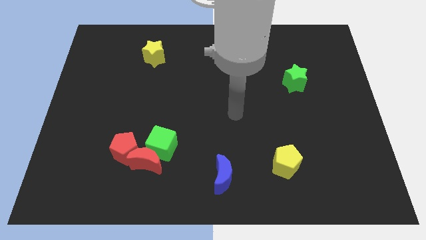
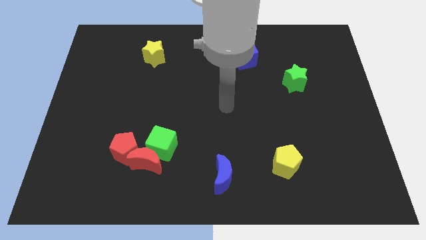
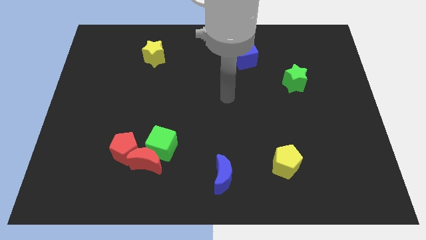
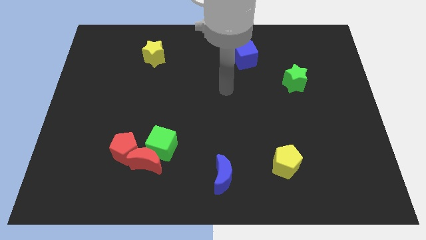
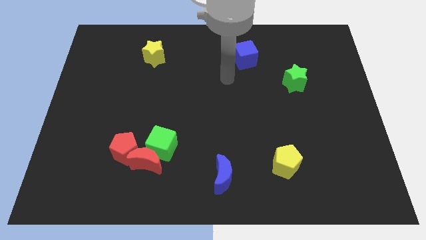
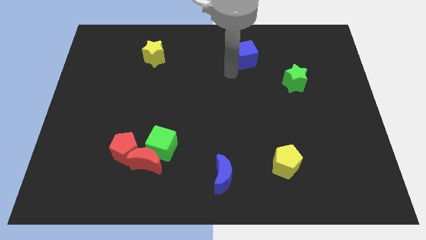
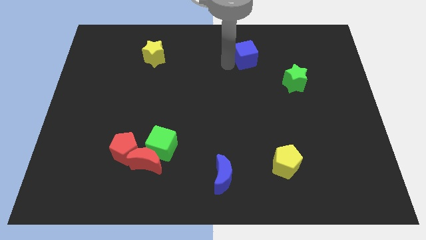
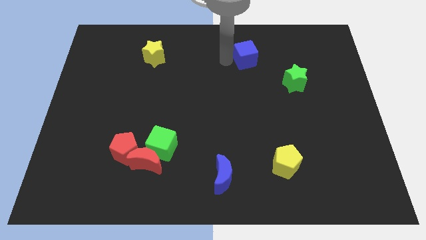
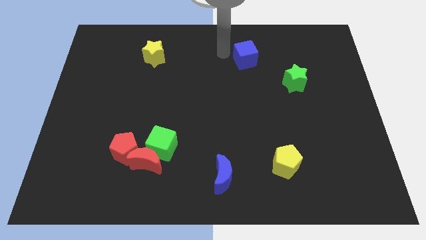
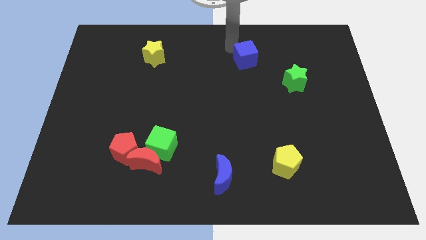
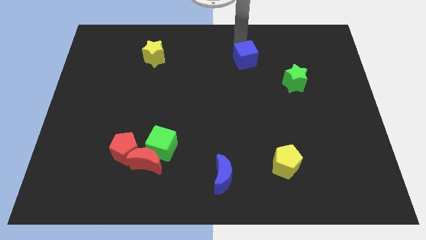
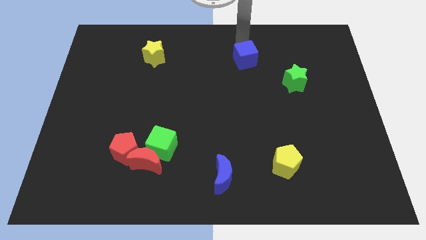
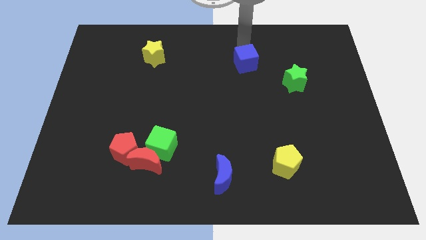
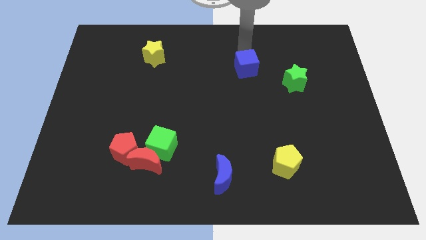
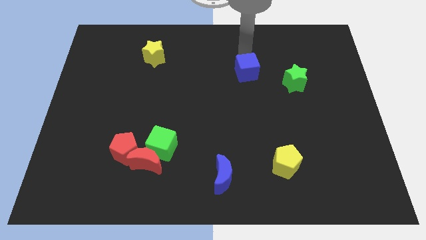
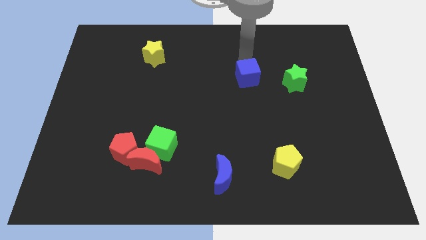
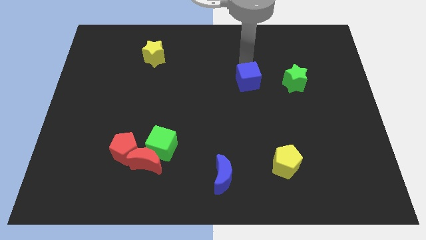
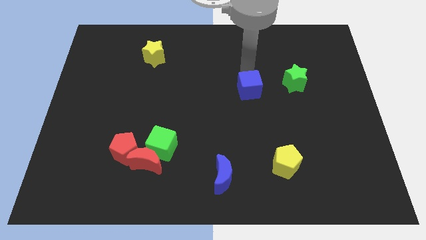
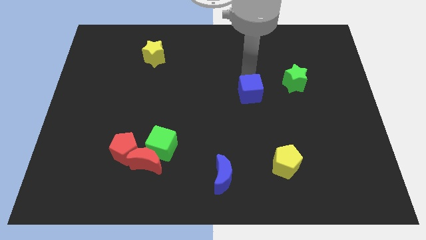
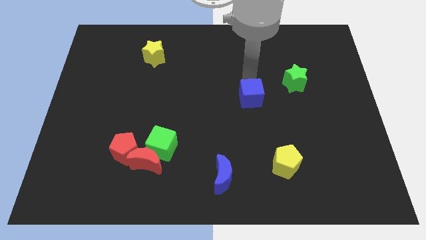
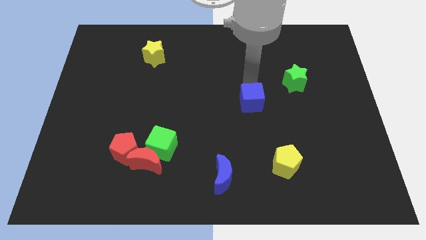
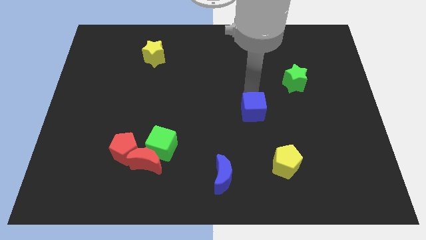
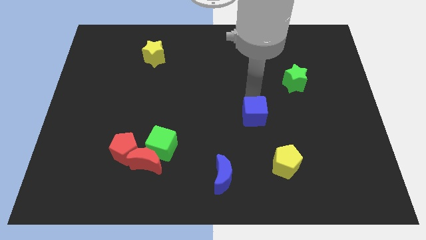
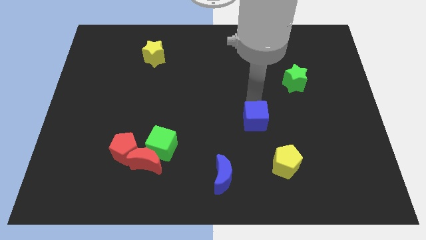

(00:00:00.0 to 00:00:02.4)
slide the blue cube down

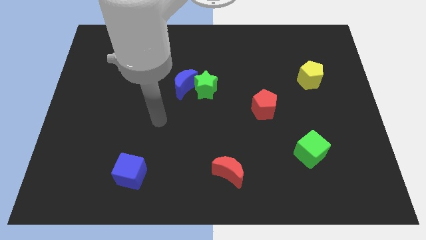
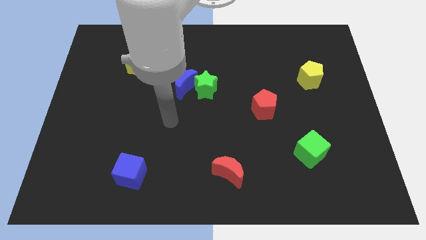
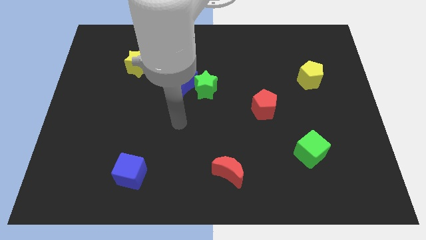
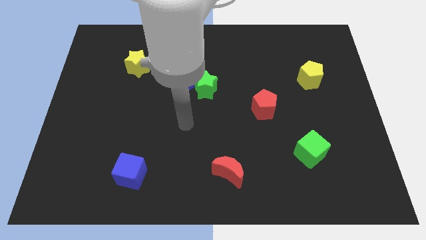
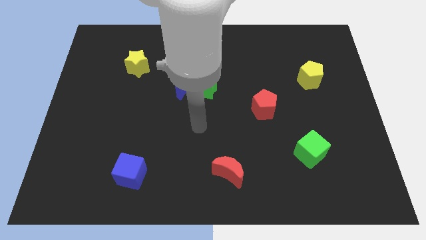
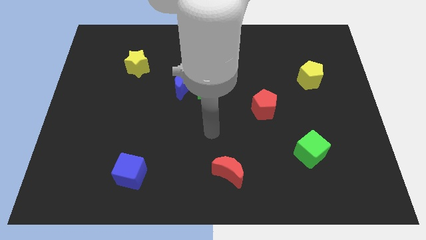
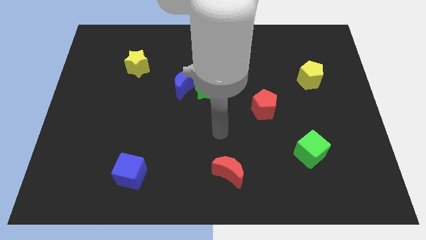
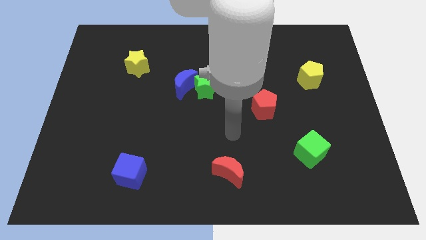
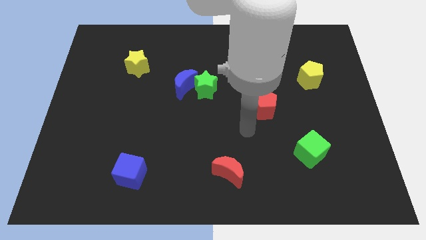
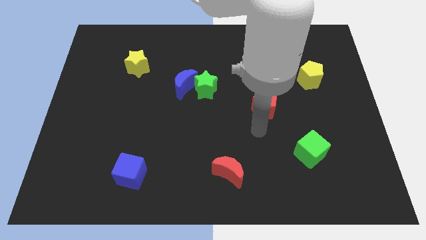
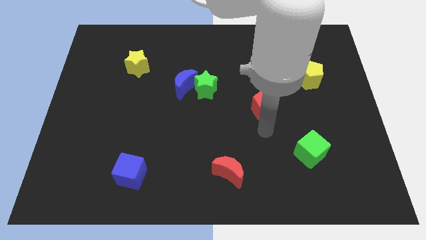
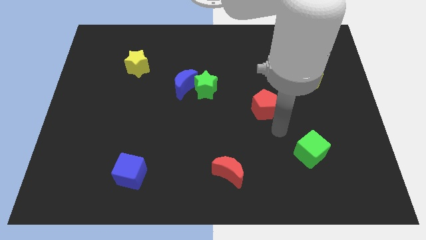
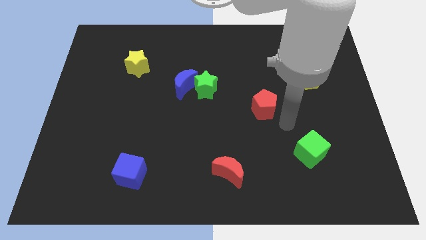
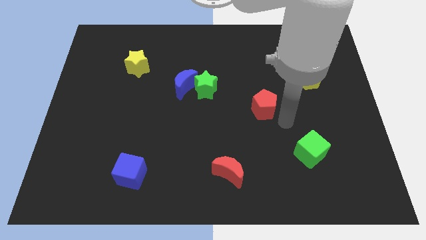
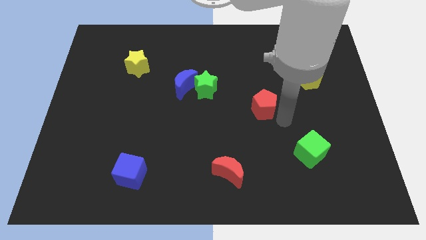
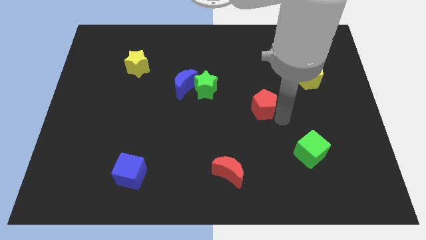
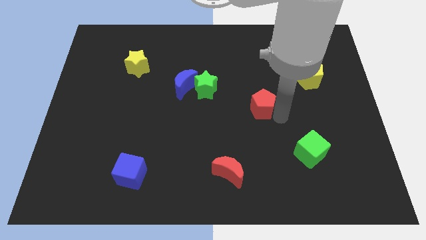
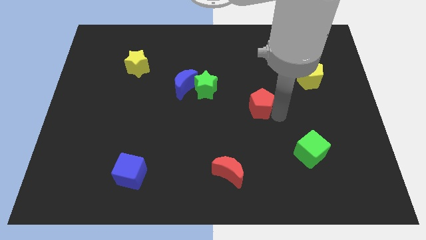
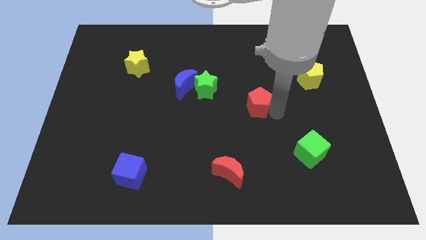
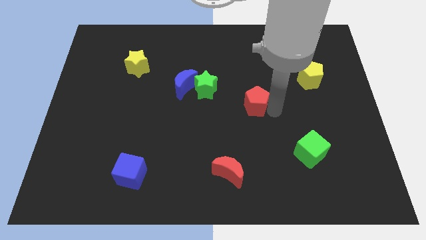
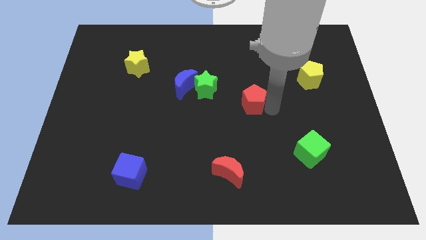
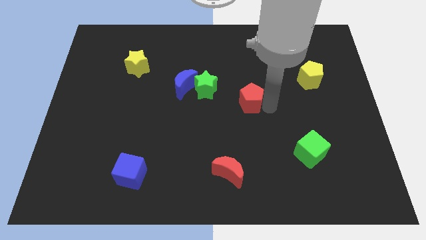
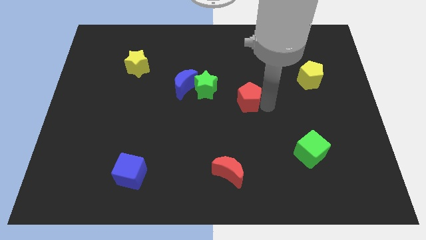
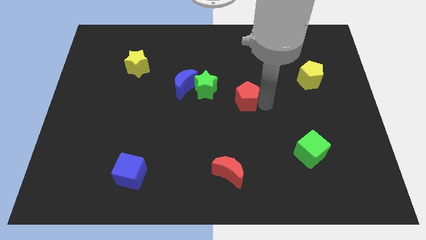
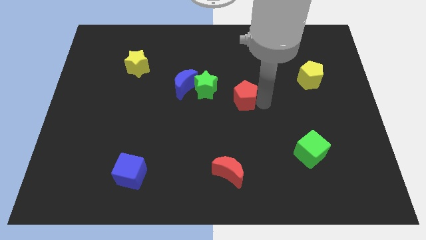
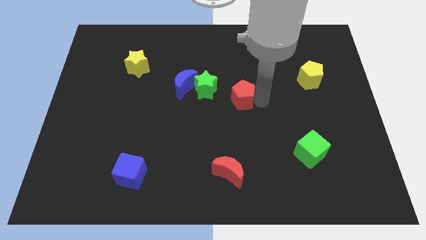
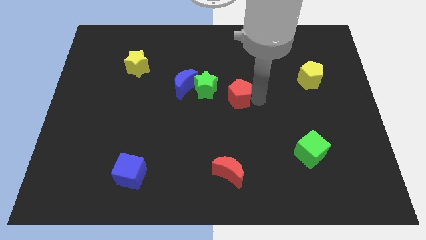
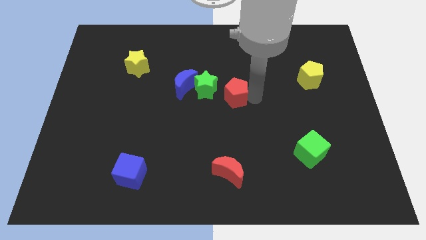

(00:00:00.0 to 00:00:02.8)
slightly push the red pentagon up and then left

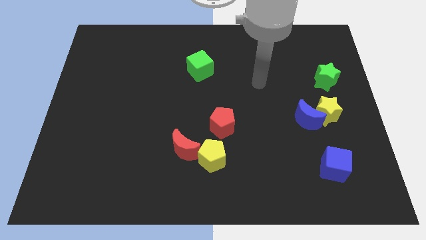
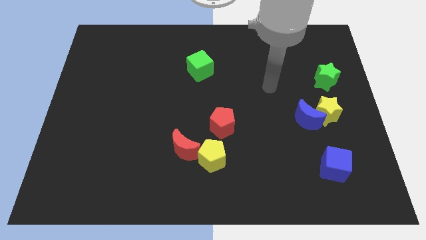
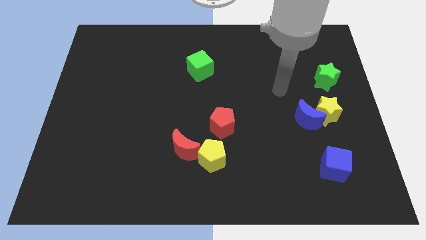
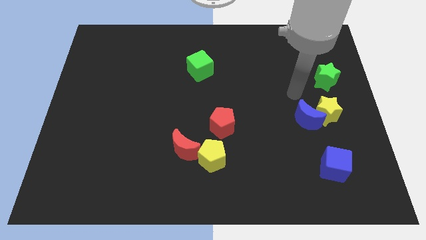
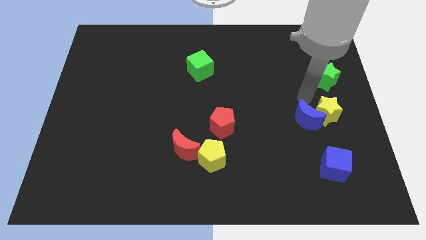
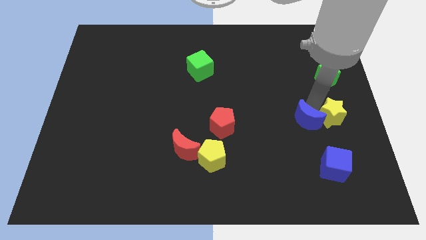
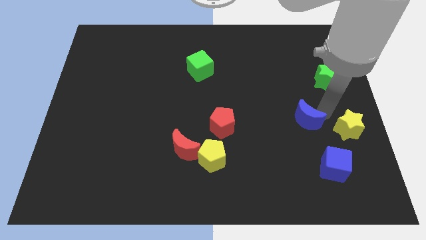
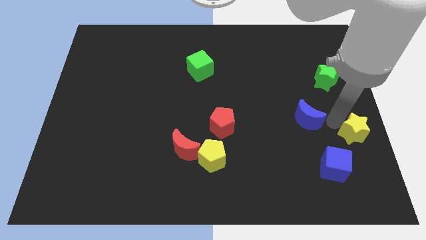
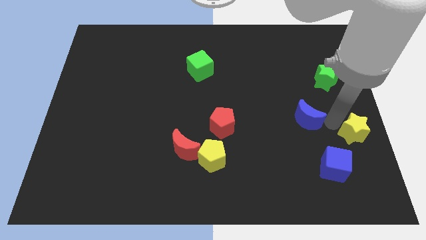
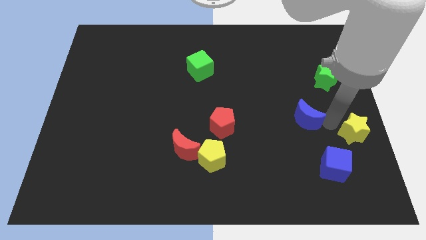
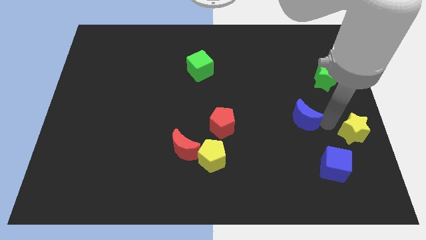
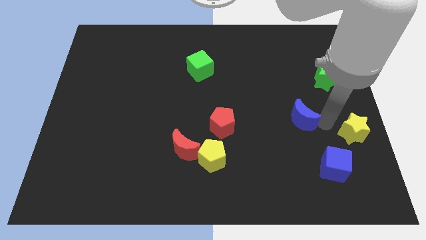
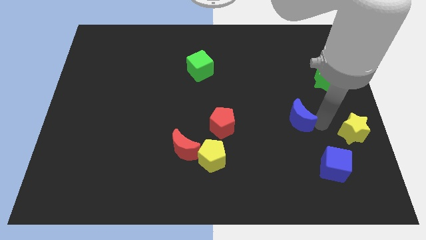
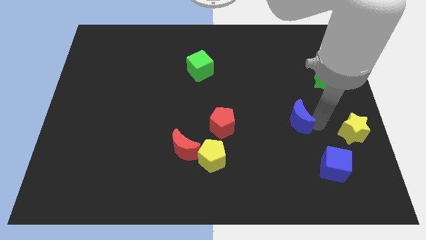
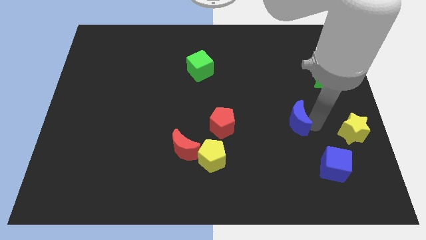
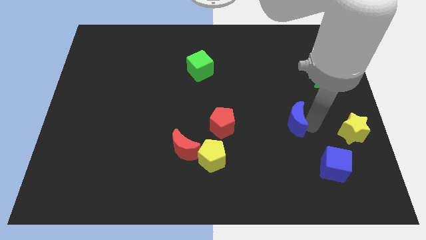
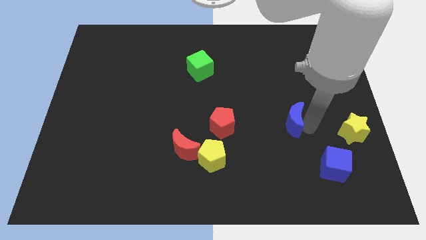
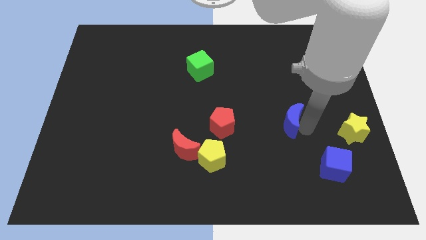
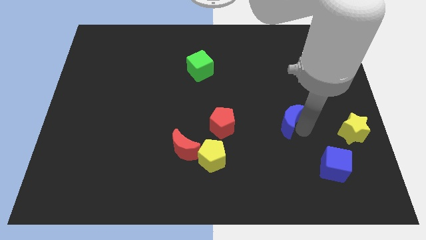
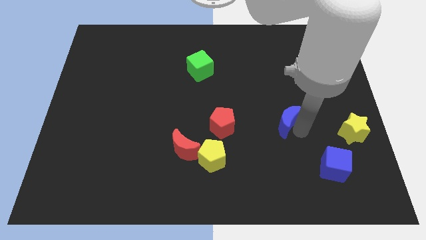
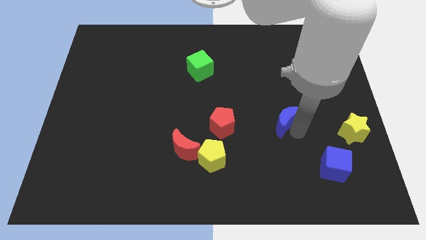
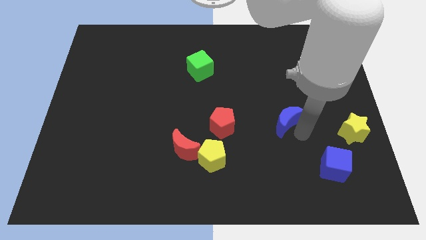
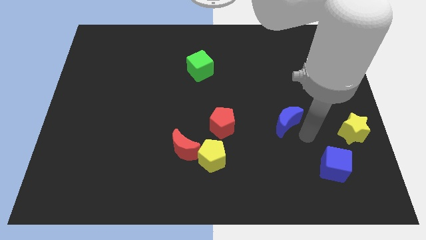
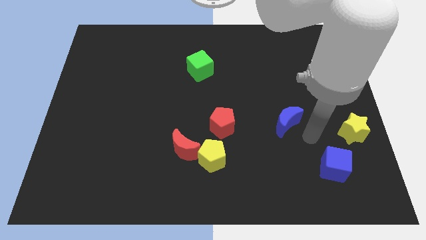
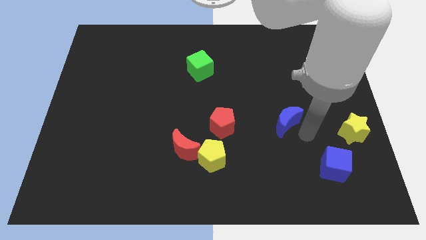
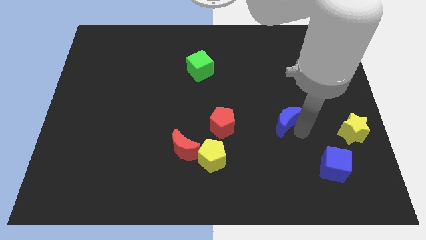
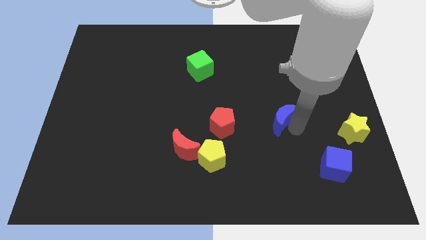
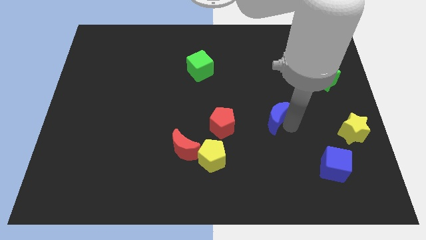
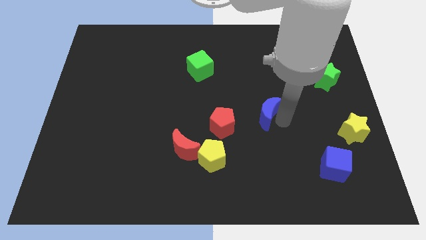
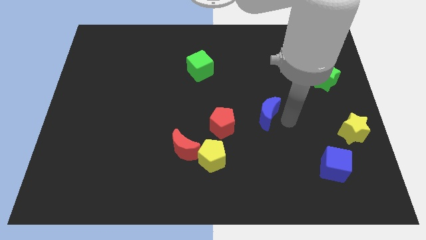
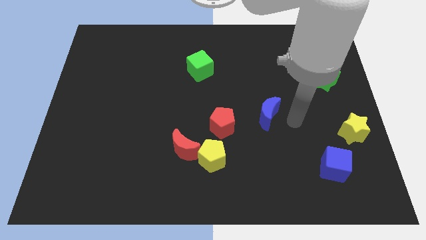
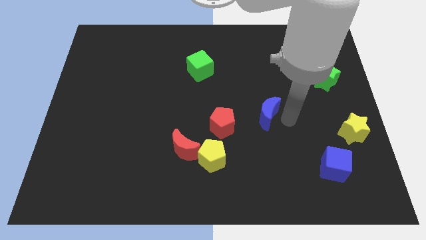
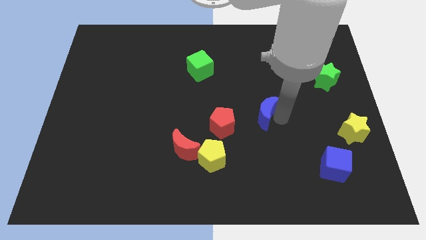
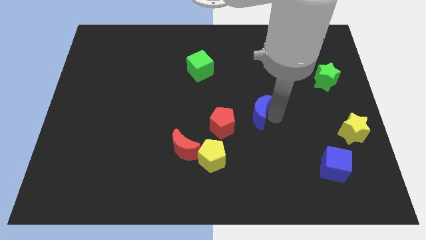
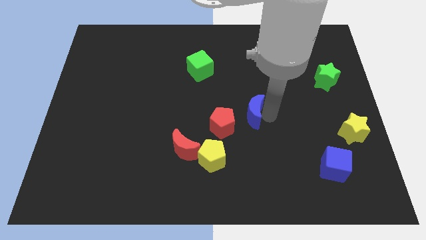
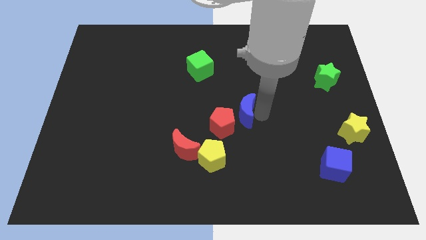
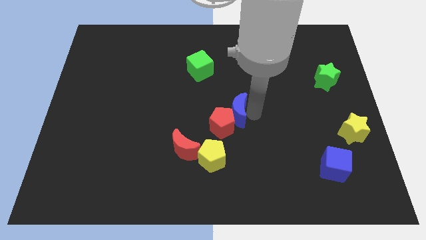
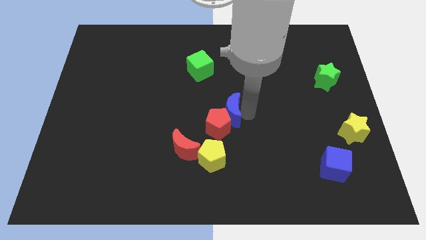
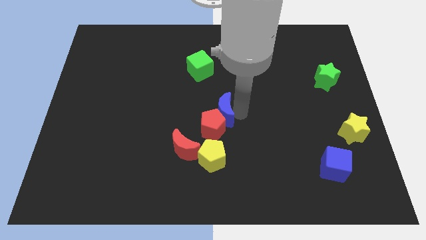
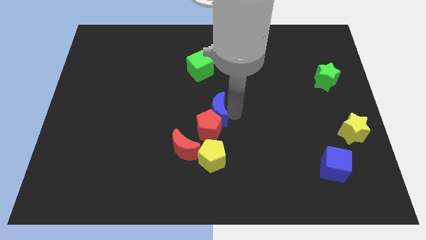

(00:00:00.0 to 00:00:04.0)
slide the blue moon left
